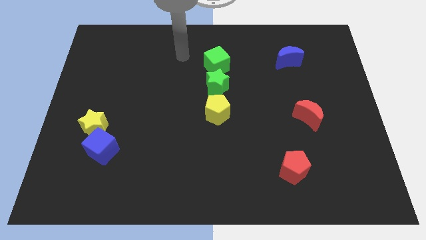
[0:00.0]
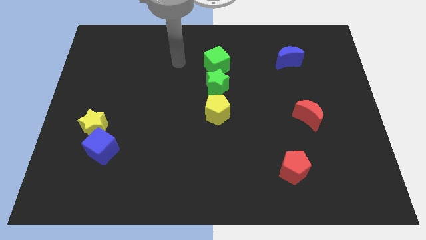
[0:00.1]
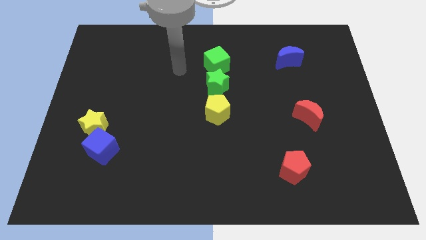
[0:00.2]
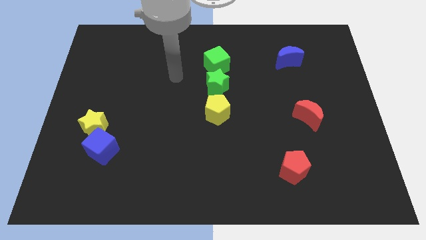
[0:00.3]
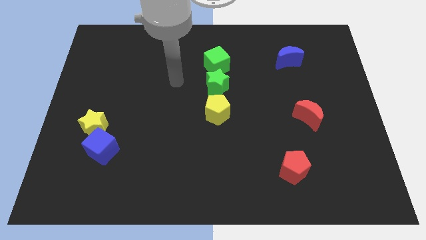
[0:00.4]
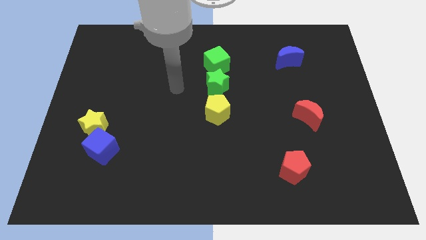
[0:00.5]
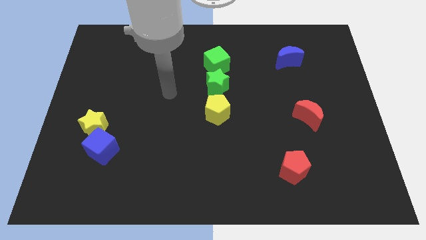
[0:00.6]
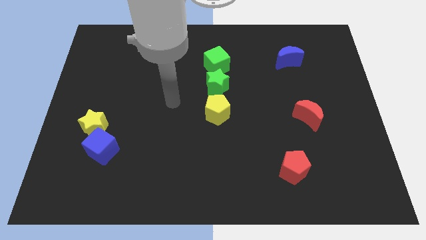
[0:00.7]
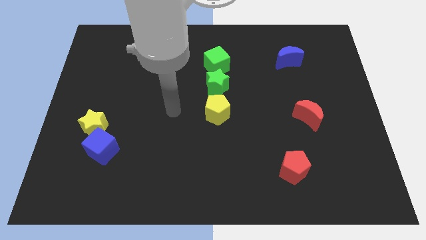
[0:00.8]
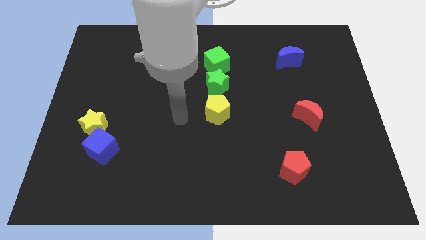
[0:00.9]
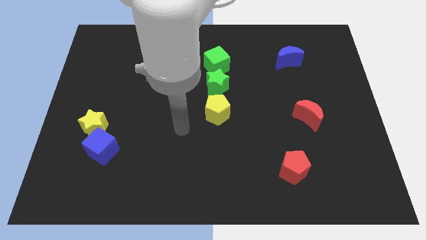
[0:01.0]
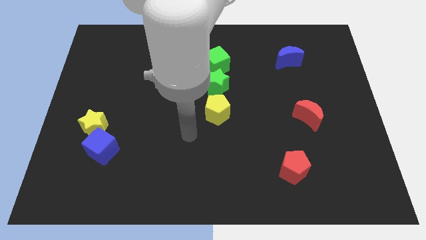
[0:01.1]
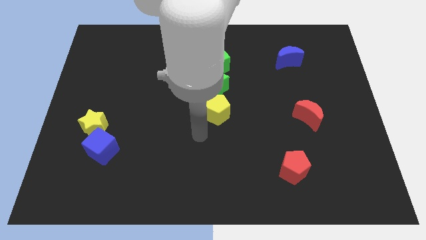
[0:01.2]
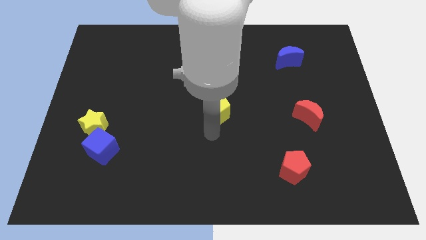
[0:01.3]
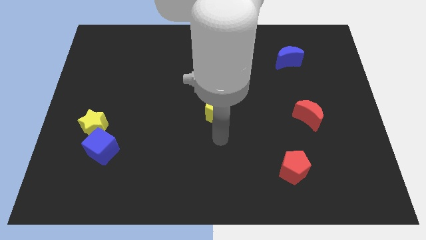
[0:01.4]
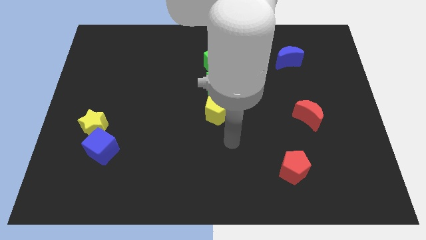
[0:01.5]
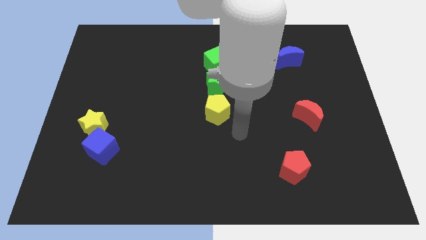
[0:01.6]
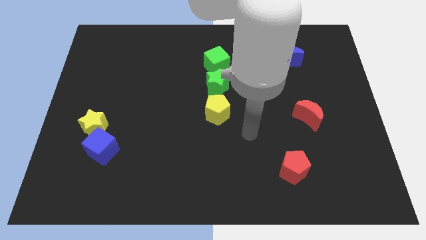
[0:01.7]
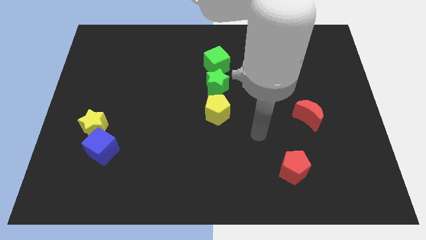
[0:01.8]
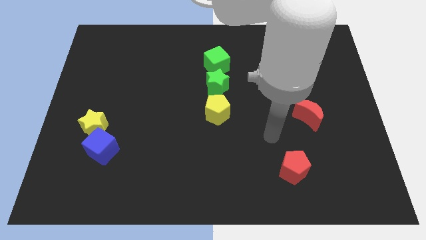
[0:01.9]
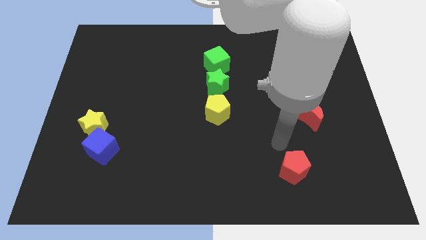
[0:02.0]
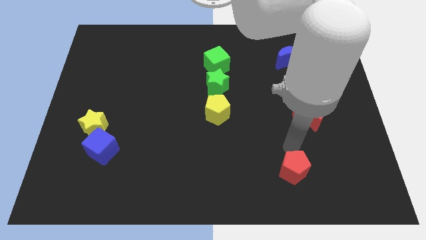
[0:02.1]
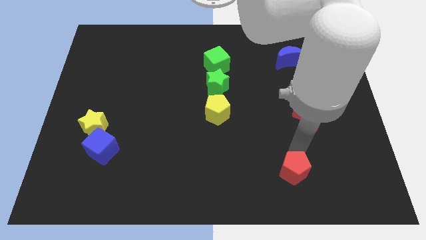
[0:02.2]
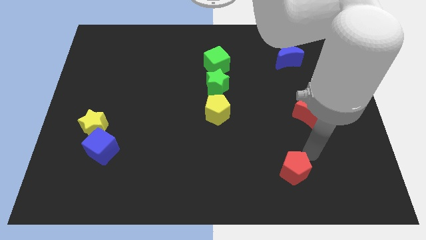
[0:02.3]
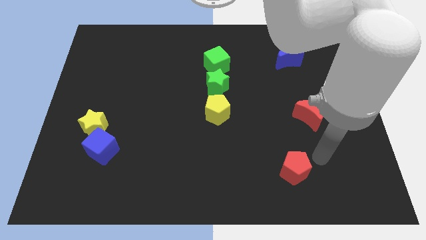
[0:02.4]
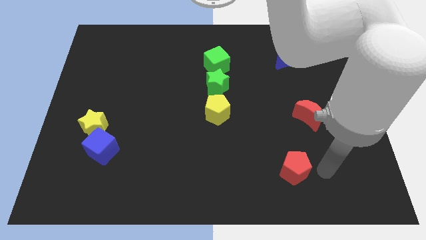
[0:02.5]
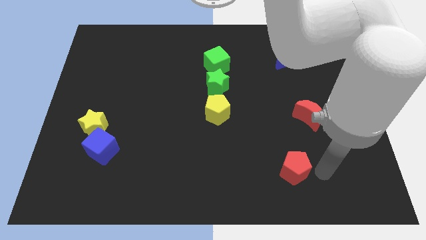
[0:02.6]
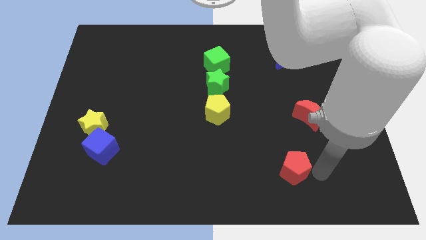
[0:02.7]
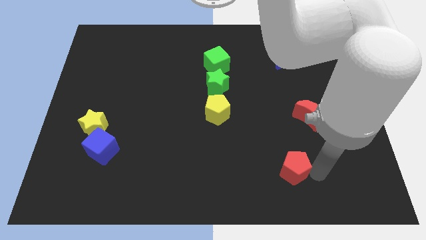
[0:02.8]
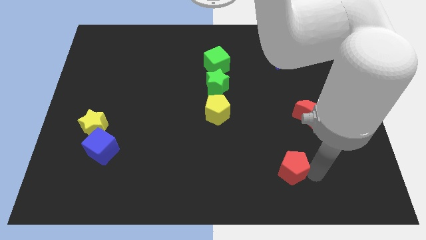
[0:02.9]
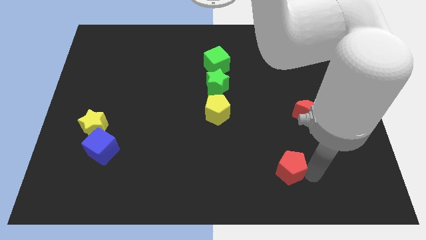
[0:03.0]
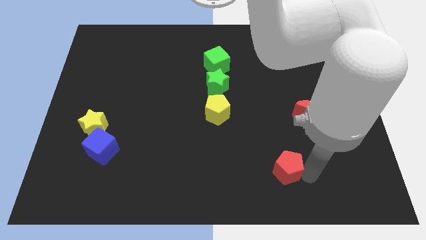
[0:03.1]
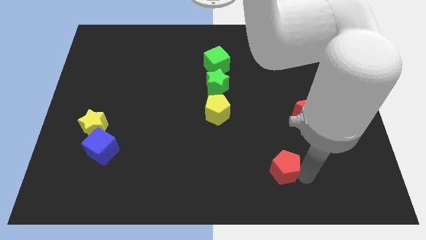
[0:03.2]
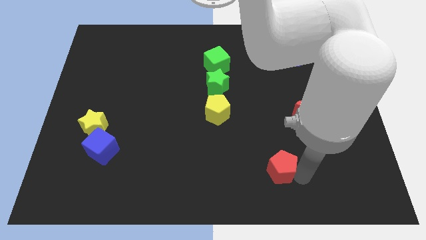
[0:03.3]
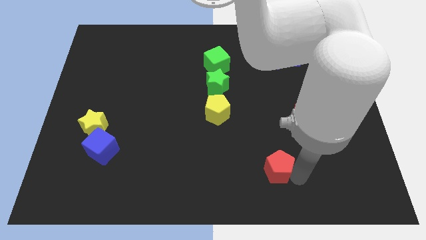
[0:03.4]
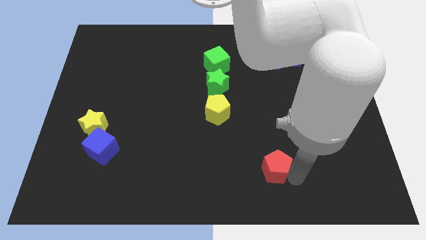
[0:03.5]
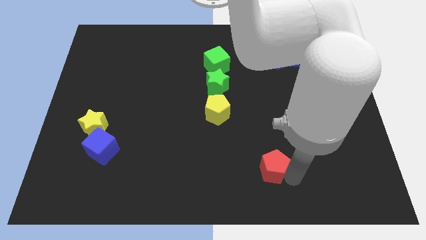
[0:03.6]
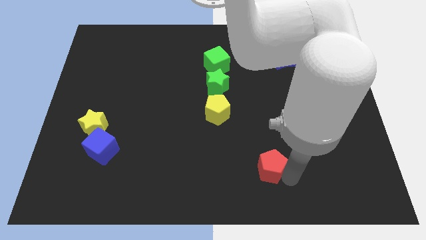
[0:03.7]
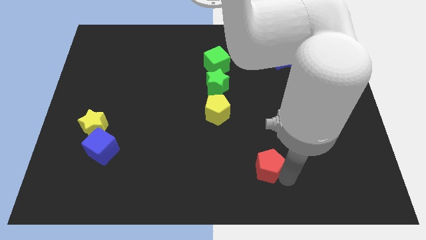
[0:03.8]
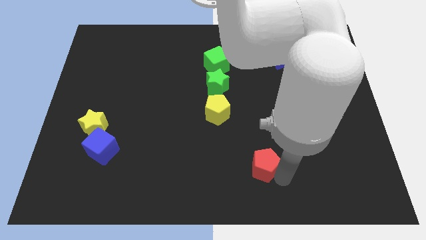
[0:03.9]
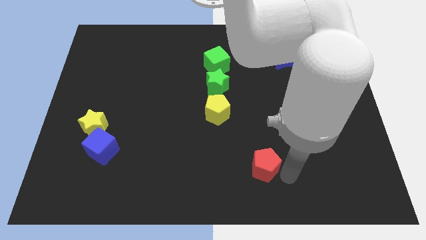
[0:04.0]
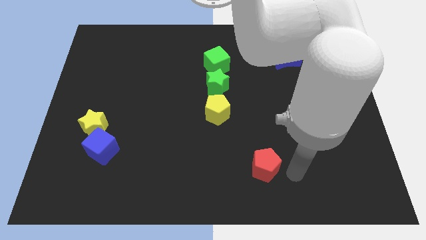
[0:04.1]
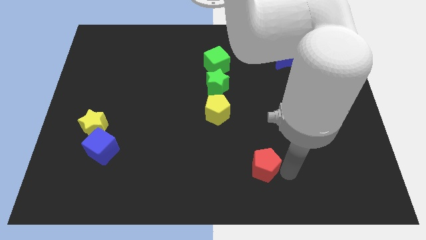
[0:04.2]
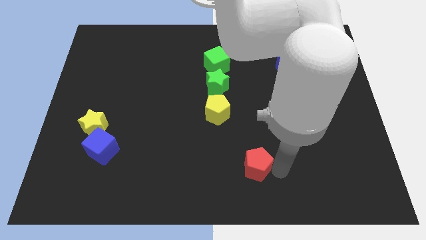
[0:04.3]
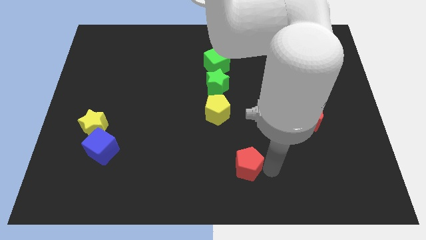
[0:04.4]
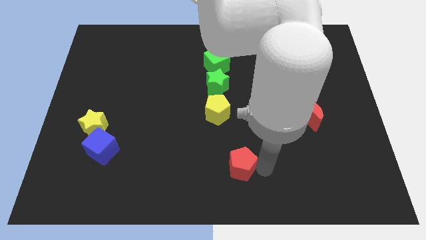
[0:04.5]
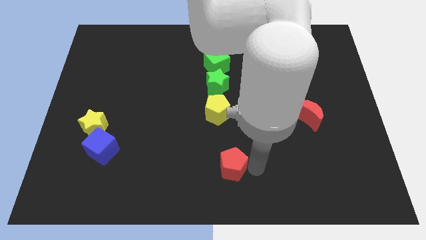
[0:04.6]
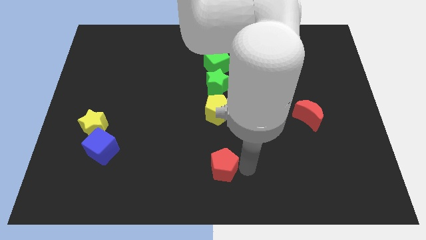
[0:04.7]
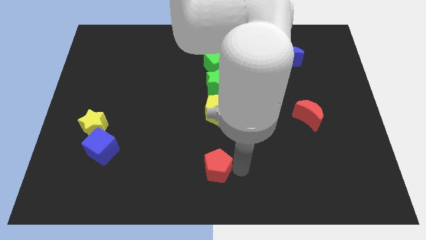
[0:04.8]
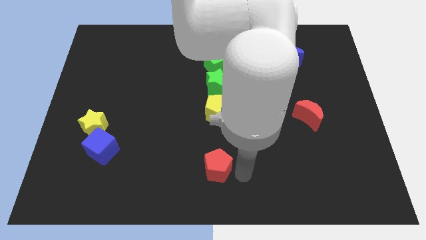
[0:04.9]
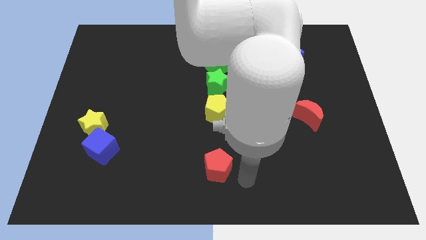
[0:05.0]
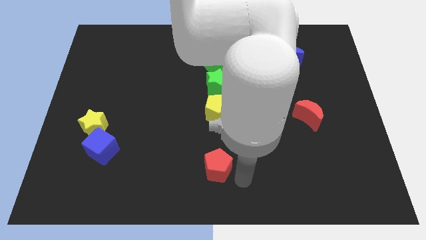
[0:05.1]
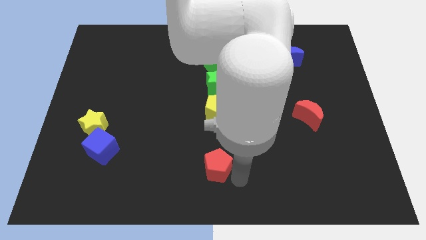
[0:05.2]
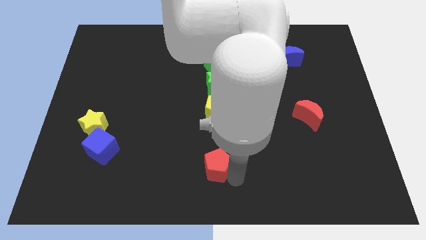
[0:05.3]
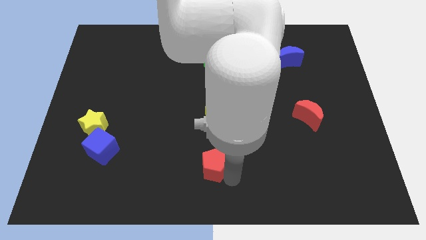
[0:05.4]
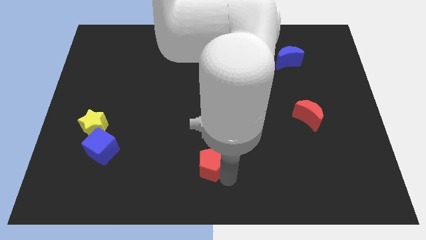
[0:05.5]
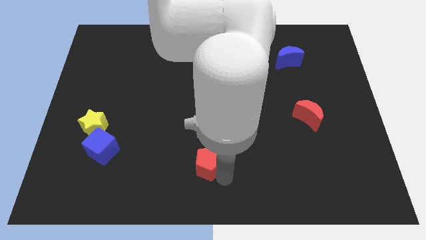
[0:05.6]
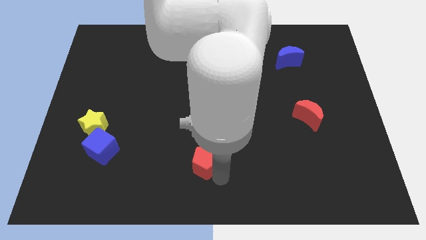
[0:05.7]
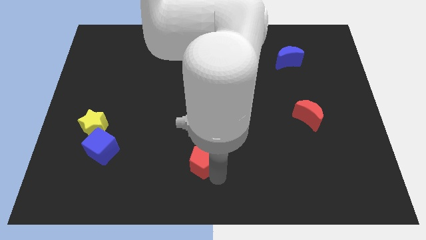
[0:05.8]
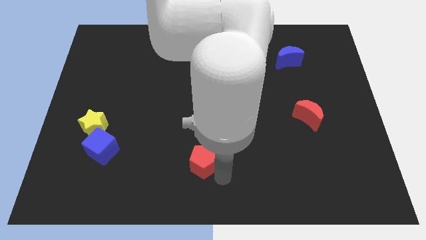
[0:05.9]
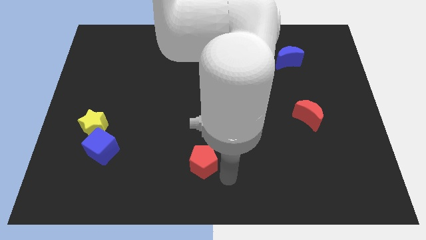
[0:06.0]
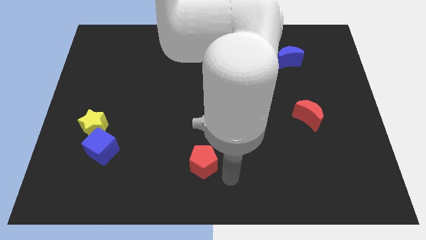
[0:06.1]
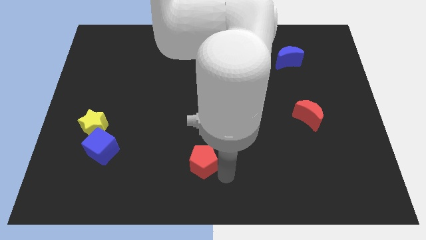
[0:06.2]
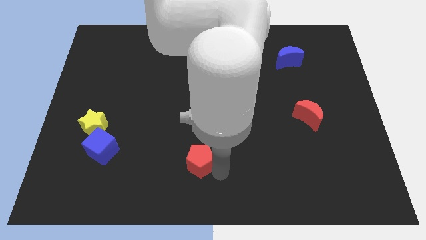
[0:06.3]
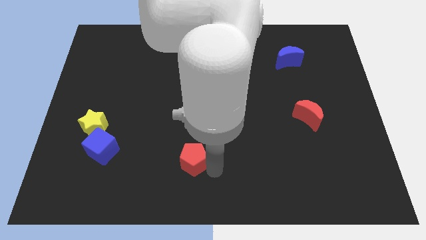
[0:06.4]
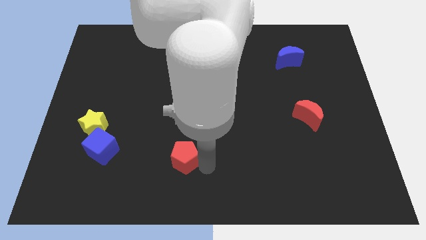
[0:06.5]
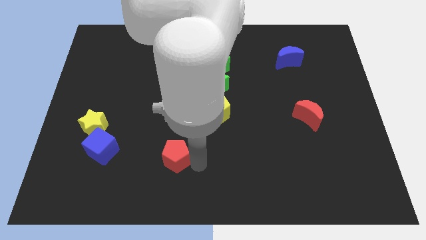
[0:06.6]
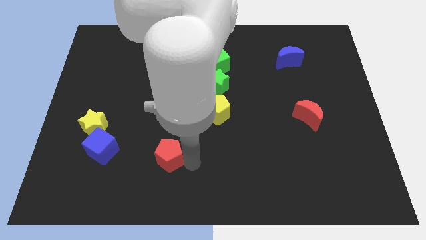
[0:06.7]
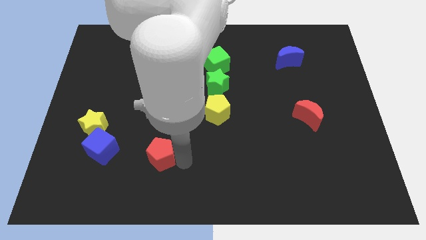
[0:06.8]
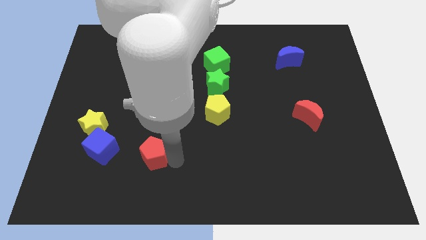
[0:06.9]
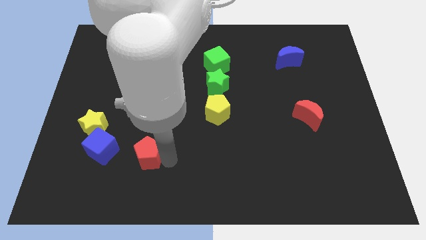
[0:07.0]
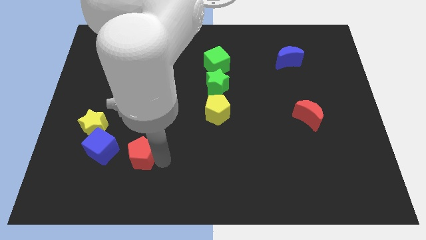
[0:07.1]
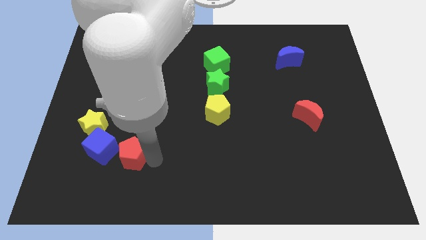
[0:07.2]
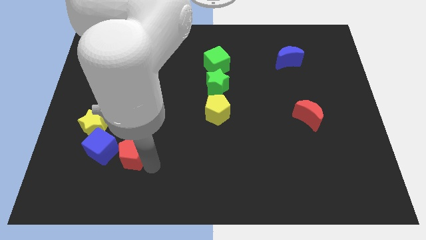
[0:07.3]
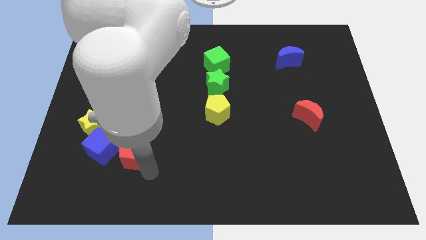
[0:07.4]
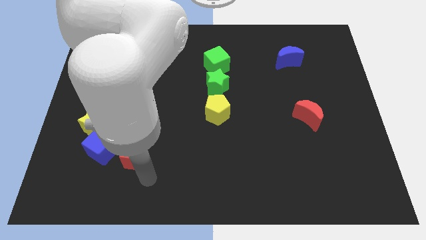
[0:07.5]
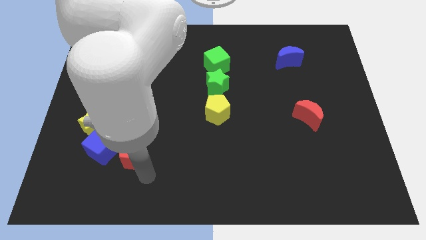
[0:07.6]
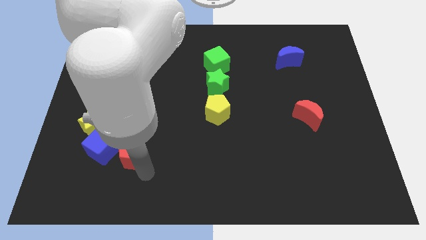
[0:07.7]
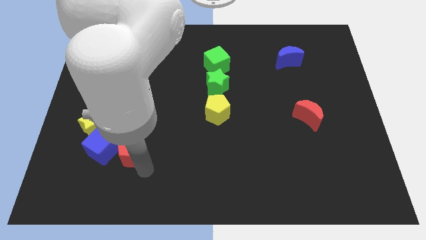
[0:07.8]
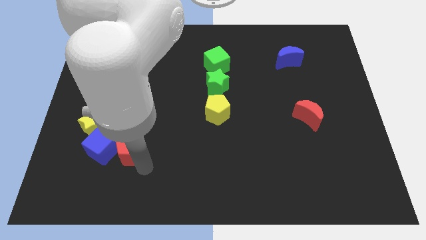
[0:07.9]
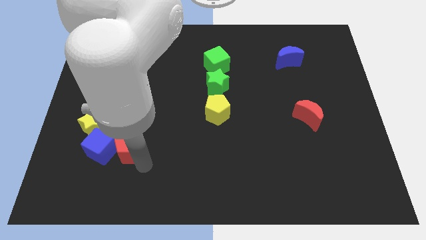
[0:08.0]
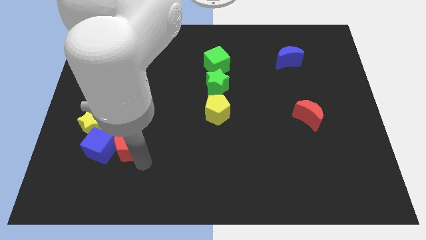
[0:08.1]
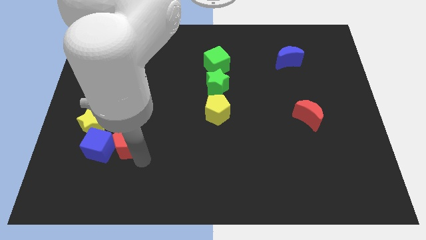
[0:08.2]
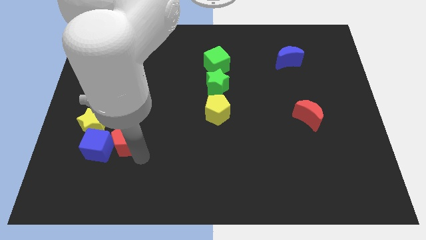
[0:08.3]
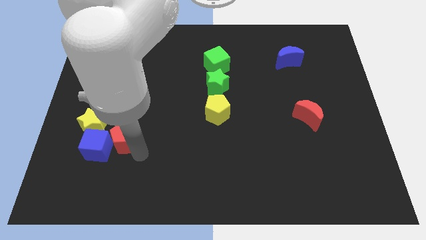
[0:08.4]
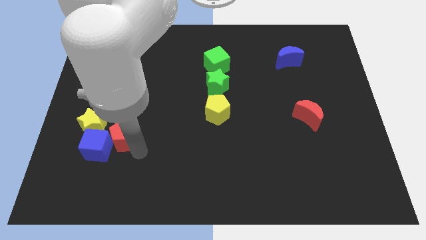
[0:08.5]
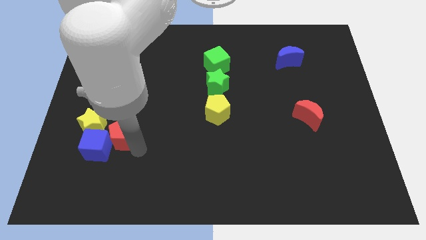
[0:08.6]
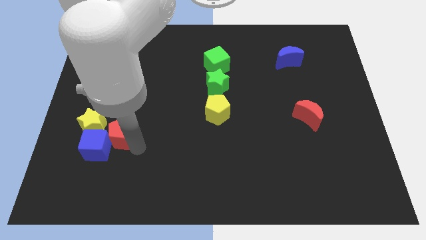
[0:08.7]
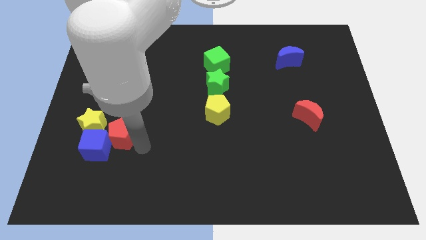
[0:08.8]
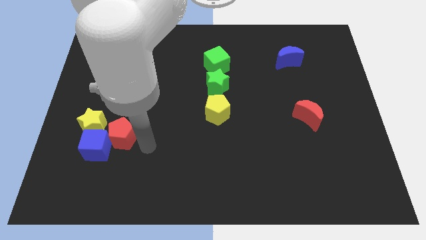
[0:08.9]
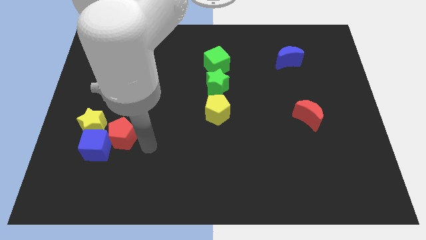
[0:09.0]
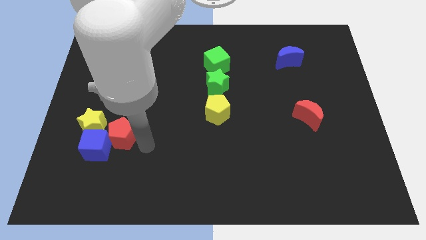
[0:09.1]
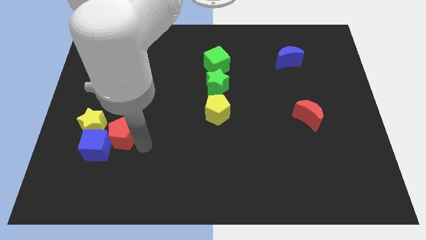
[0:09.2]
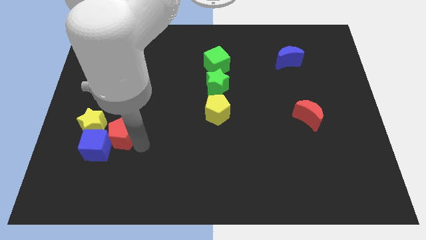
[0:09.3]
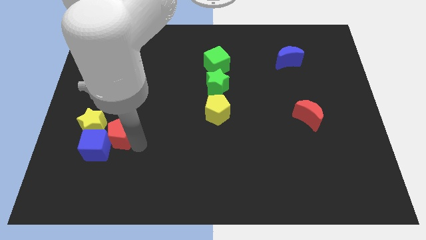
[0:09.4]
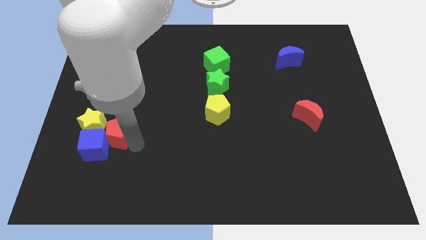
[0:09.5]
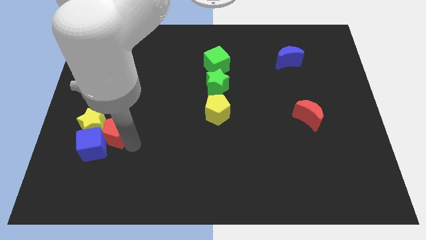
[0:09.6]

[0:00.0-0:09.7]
move the red pentagon next to the yellow star
